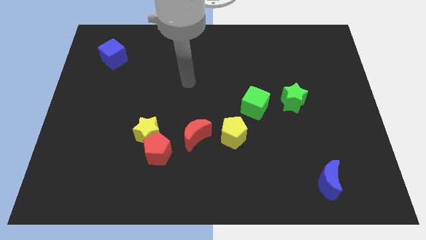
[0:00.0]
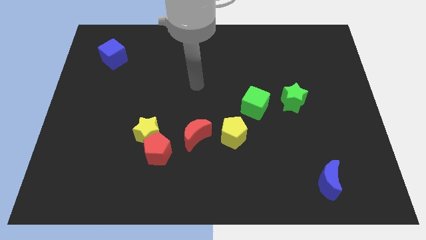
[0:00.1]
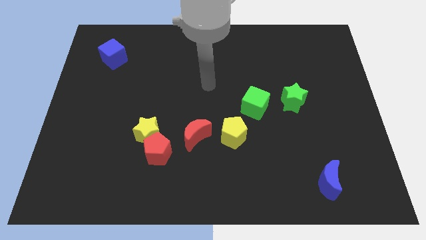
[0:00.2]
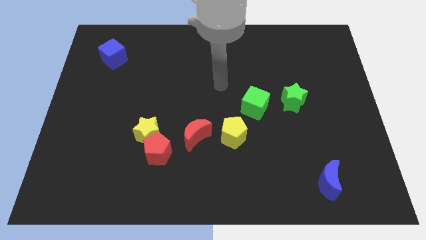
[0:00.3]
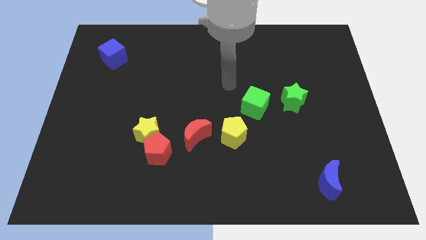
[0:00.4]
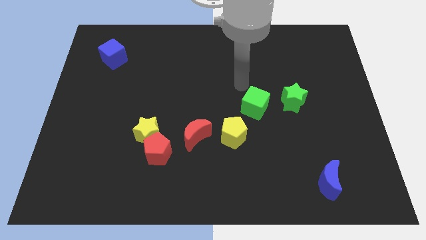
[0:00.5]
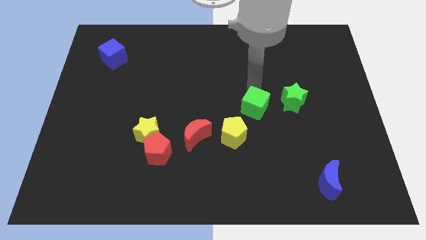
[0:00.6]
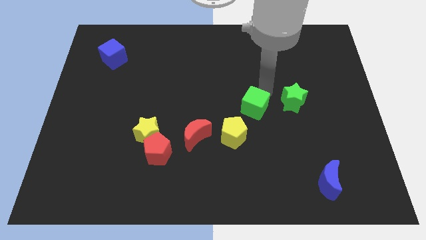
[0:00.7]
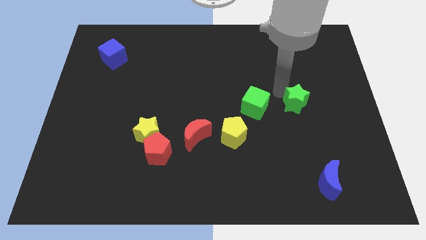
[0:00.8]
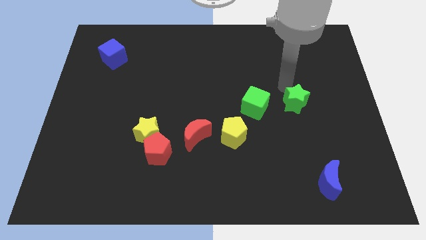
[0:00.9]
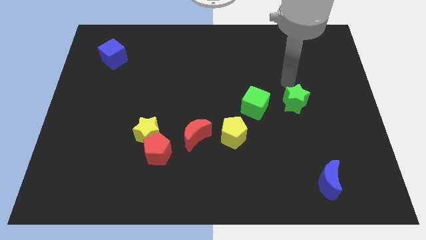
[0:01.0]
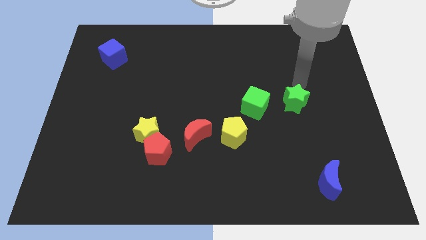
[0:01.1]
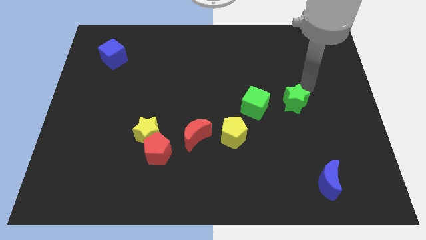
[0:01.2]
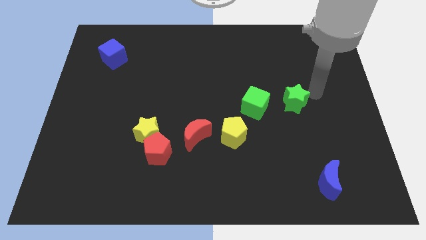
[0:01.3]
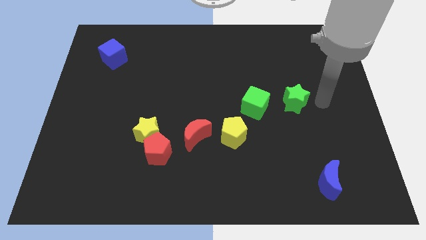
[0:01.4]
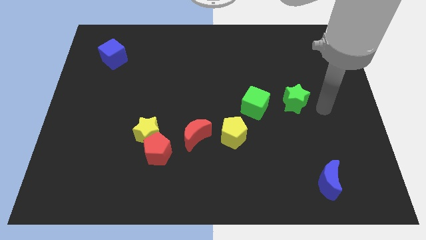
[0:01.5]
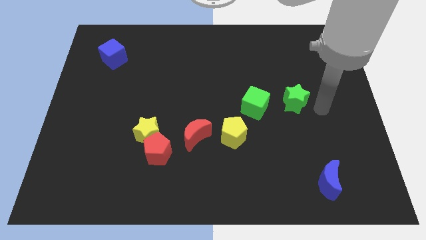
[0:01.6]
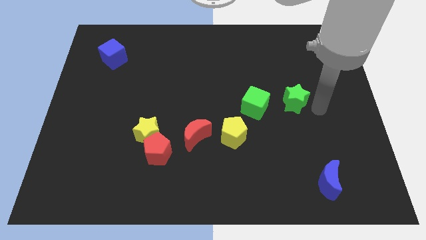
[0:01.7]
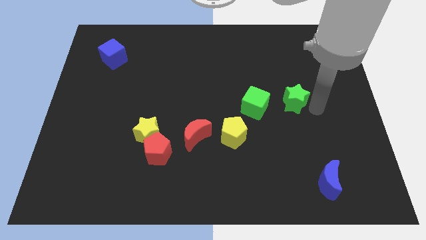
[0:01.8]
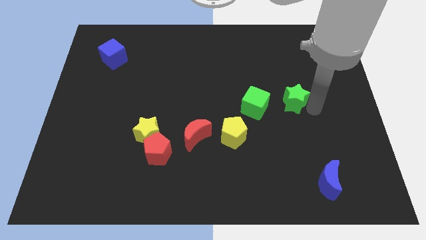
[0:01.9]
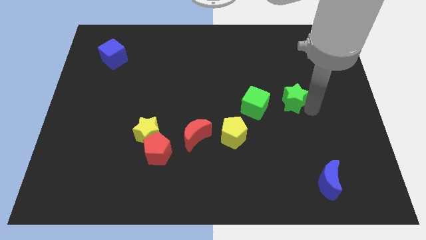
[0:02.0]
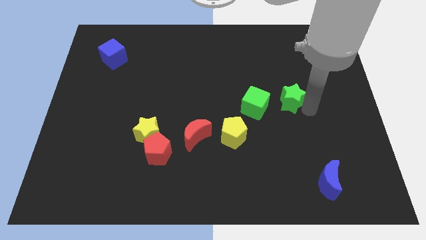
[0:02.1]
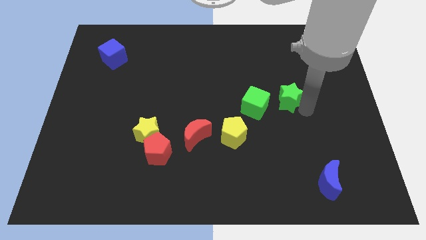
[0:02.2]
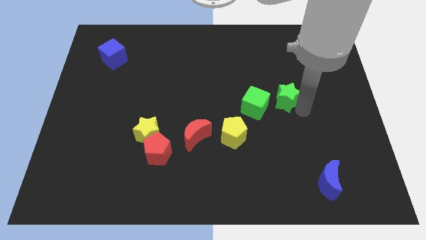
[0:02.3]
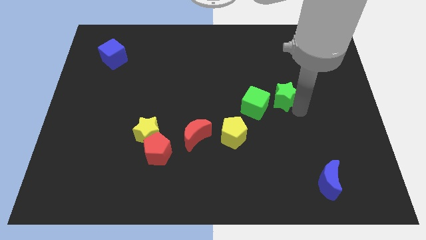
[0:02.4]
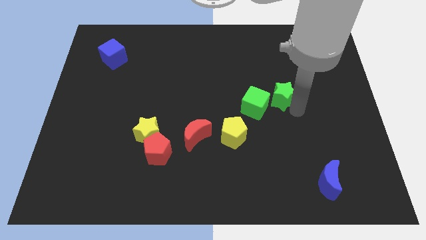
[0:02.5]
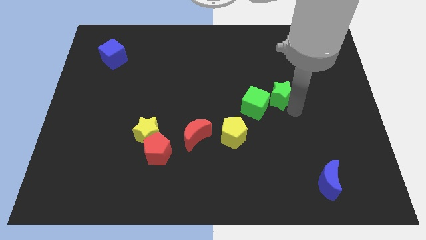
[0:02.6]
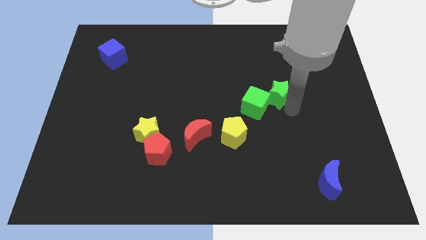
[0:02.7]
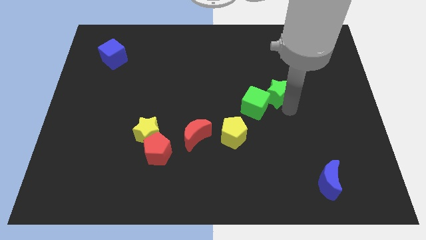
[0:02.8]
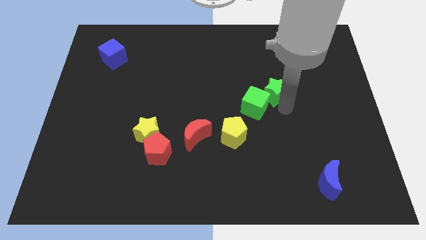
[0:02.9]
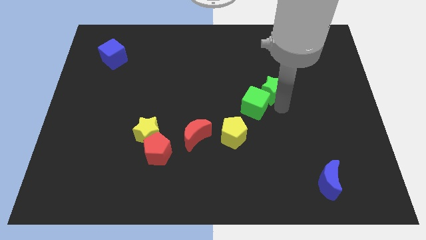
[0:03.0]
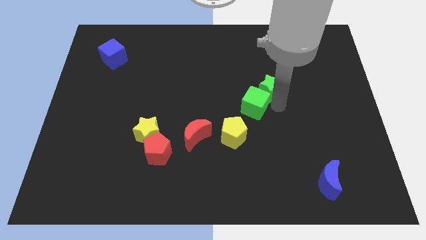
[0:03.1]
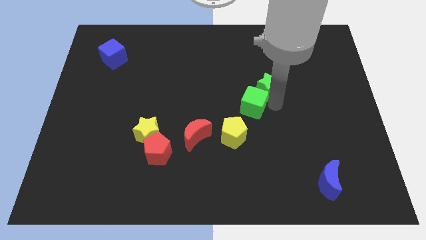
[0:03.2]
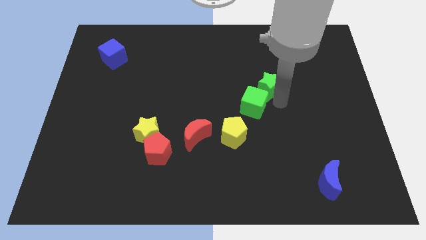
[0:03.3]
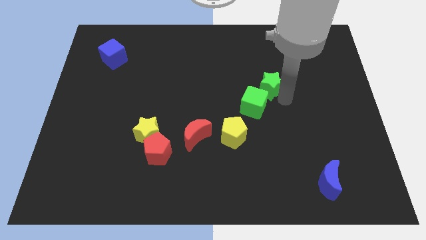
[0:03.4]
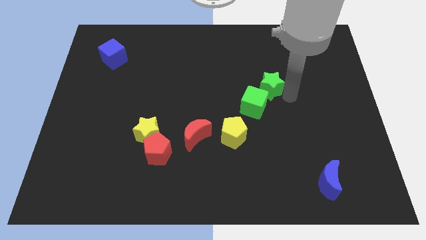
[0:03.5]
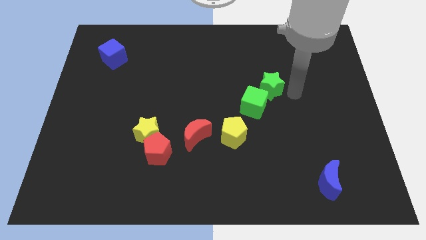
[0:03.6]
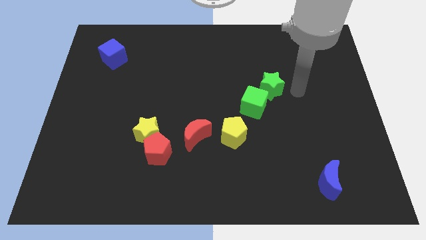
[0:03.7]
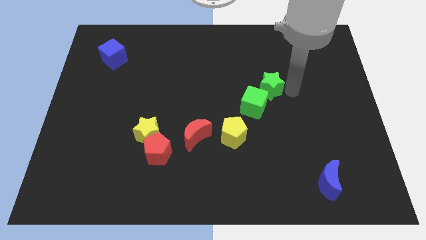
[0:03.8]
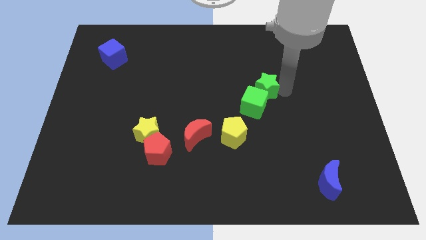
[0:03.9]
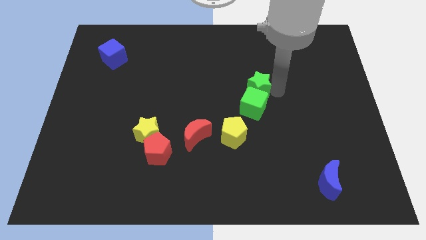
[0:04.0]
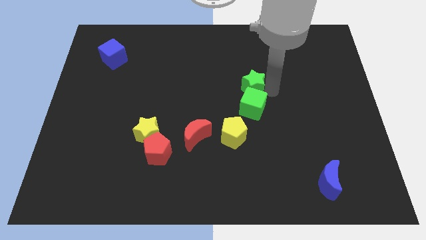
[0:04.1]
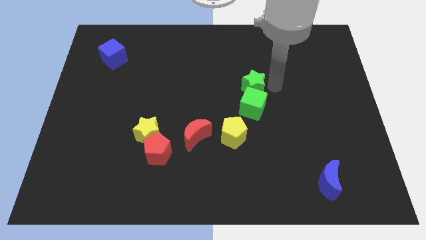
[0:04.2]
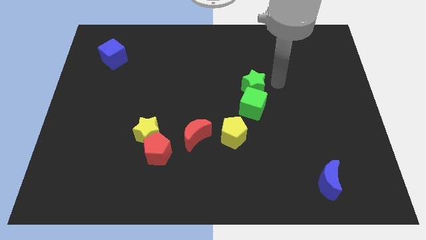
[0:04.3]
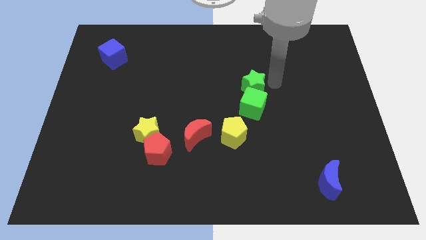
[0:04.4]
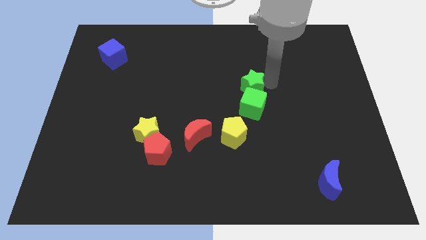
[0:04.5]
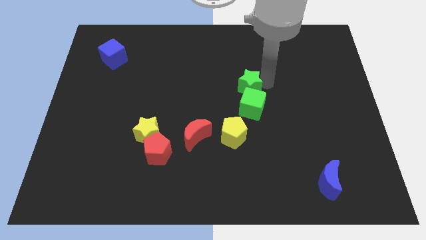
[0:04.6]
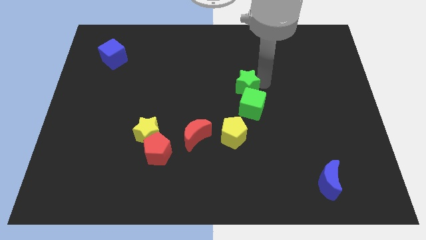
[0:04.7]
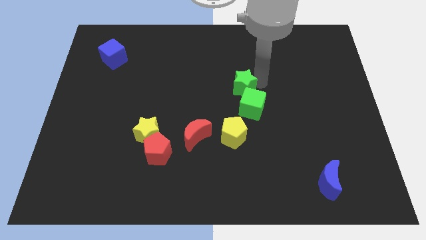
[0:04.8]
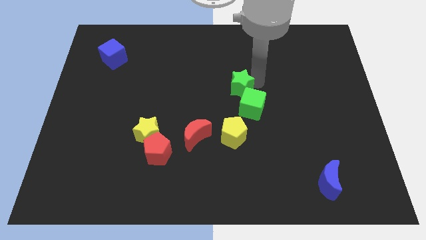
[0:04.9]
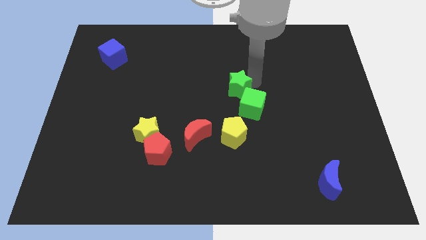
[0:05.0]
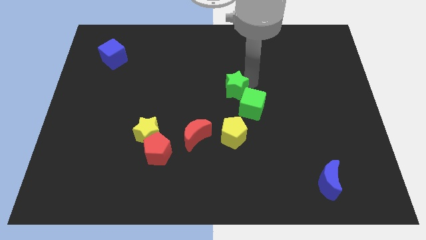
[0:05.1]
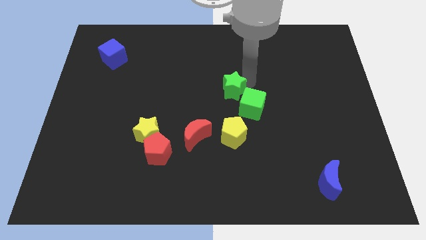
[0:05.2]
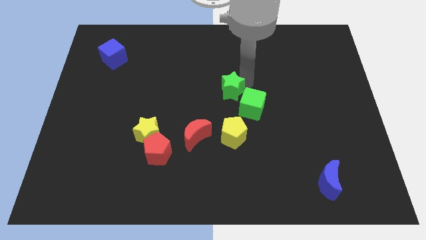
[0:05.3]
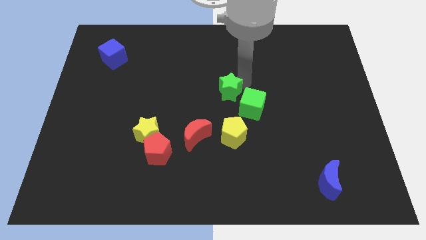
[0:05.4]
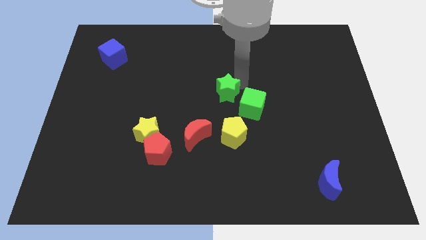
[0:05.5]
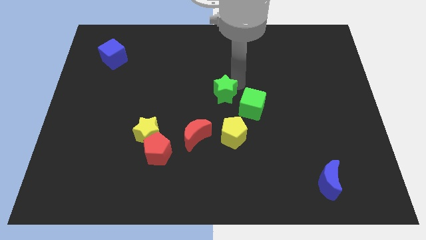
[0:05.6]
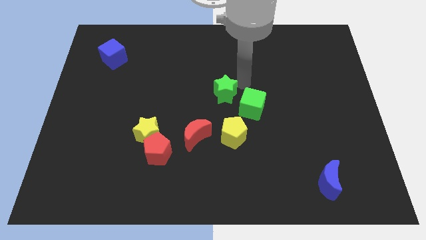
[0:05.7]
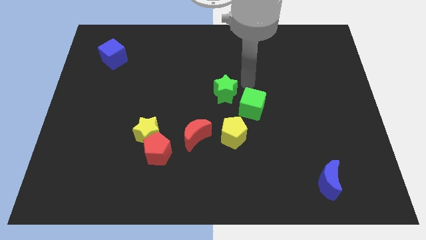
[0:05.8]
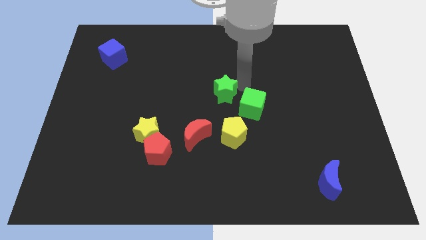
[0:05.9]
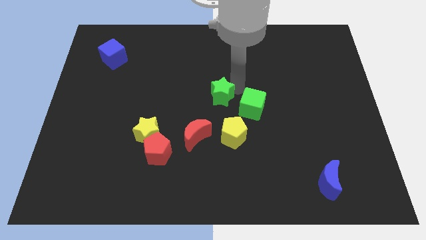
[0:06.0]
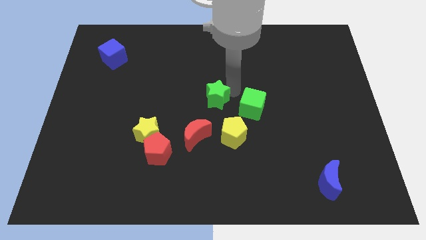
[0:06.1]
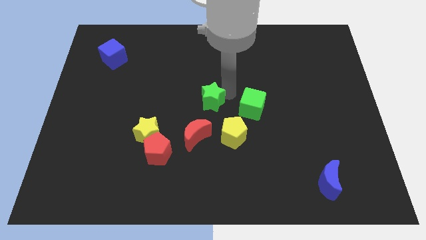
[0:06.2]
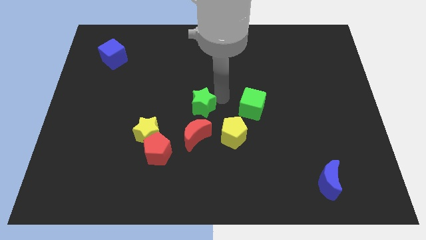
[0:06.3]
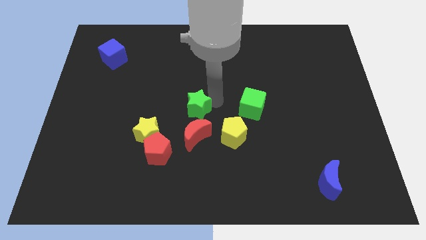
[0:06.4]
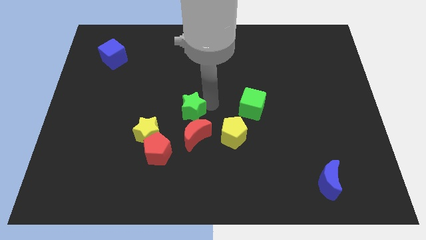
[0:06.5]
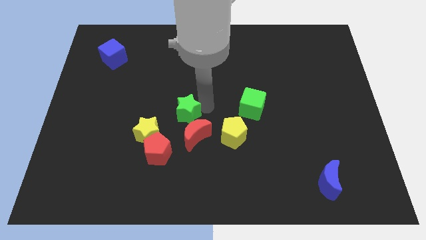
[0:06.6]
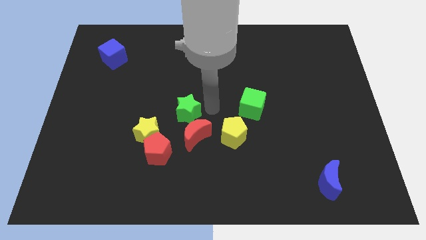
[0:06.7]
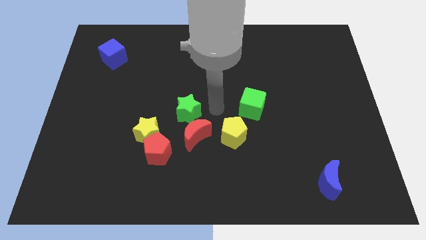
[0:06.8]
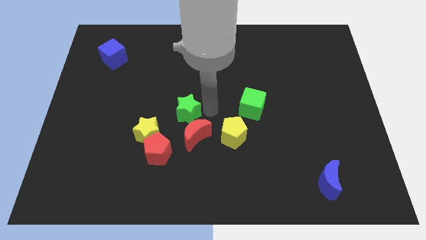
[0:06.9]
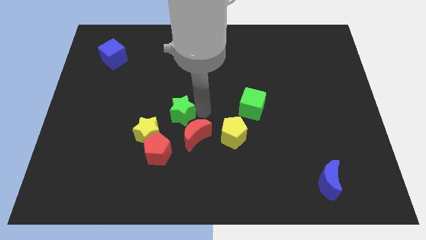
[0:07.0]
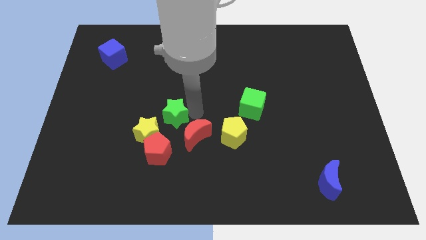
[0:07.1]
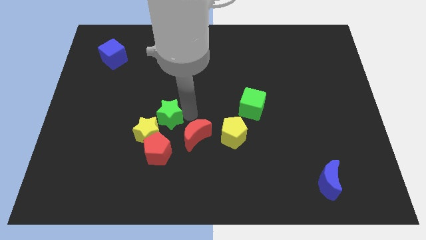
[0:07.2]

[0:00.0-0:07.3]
slide the green star to the left of the red moon
